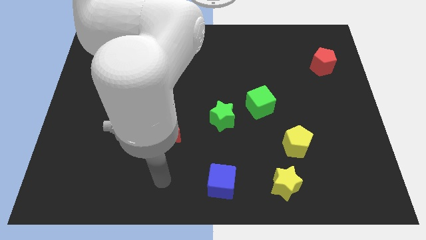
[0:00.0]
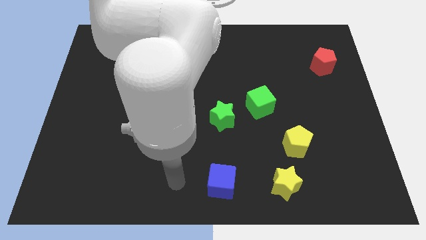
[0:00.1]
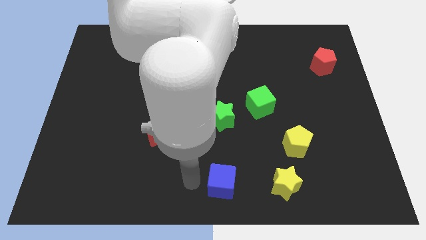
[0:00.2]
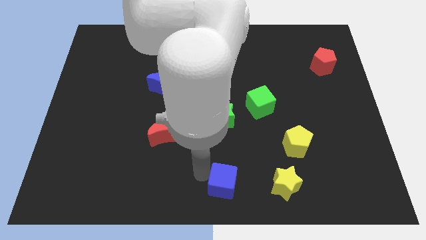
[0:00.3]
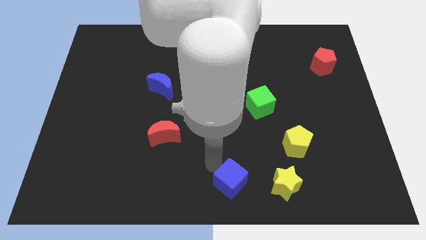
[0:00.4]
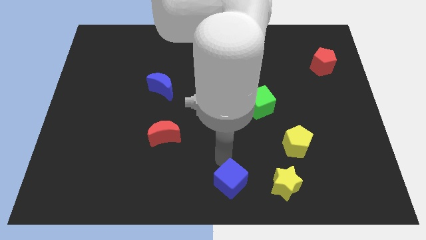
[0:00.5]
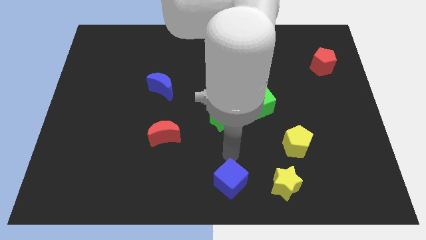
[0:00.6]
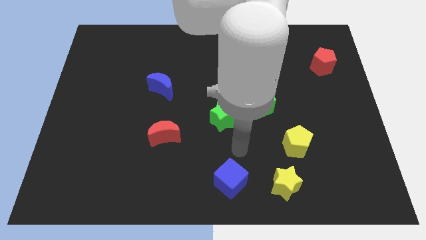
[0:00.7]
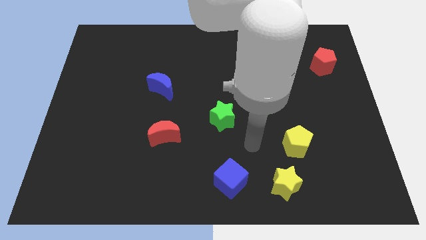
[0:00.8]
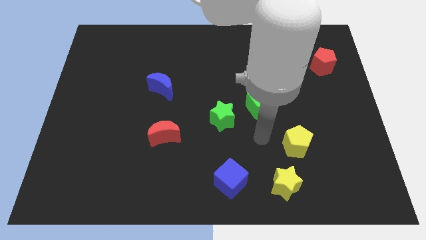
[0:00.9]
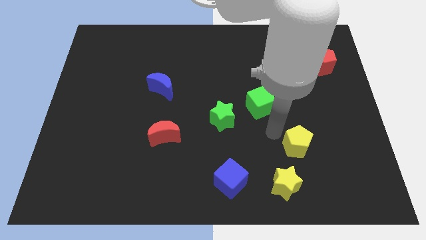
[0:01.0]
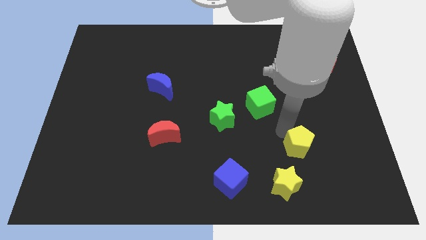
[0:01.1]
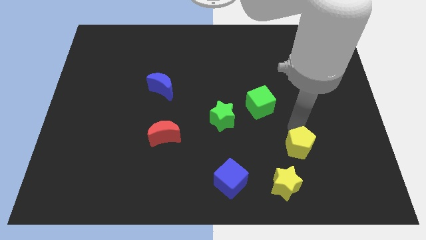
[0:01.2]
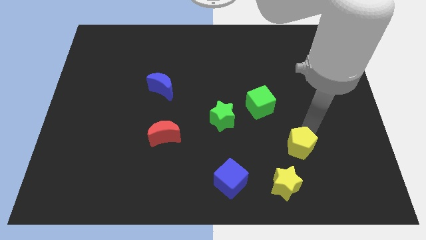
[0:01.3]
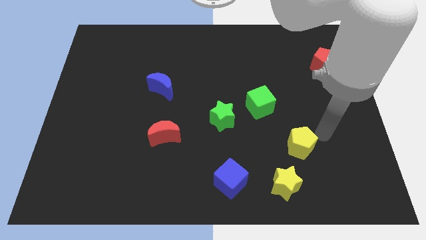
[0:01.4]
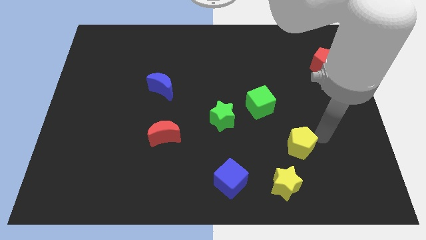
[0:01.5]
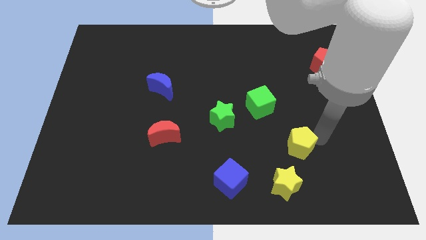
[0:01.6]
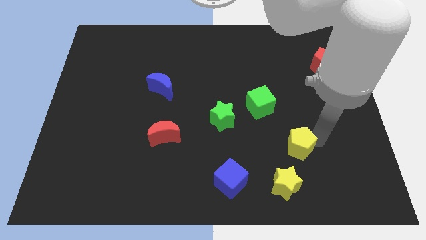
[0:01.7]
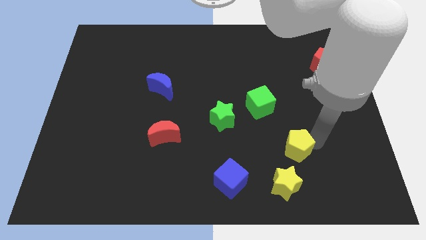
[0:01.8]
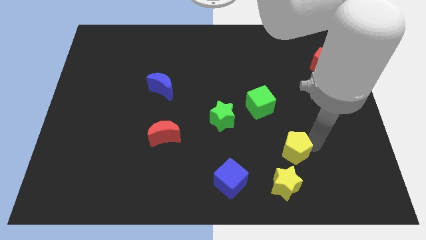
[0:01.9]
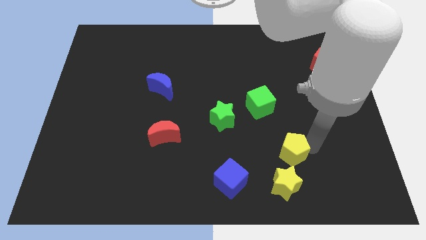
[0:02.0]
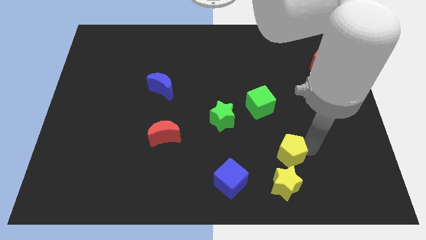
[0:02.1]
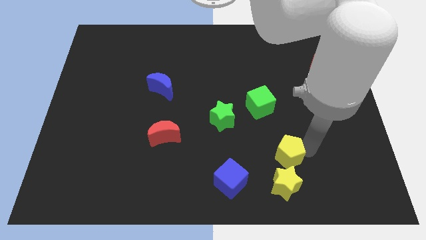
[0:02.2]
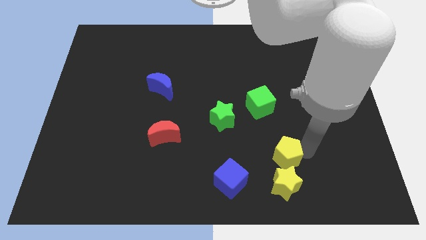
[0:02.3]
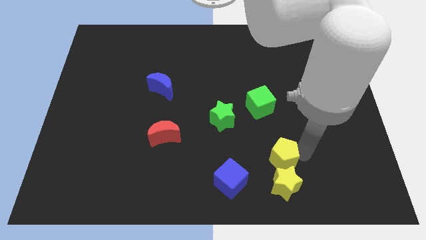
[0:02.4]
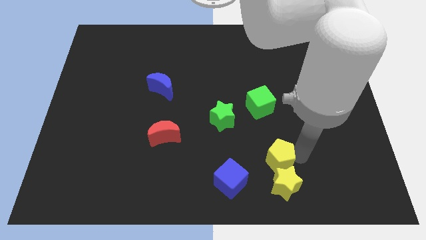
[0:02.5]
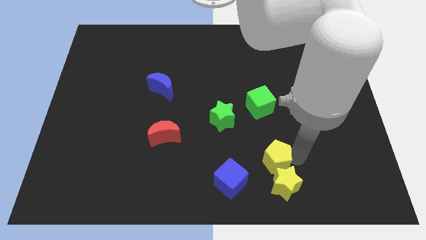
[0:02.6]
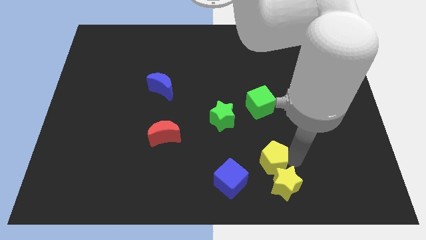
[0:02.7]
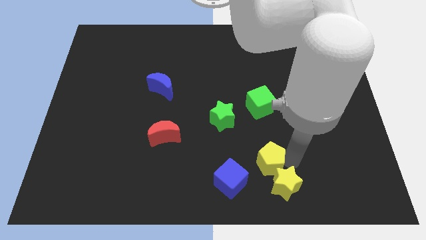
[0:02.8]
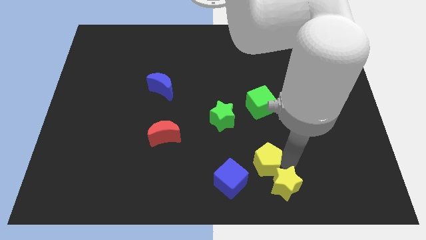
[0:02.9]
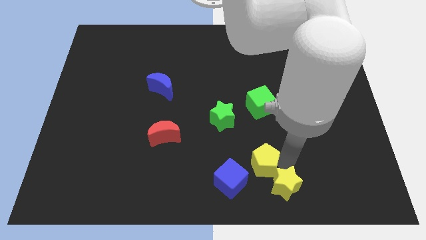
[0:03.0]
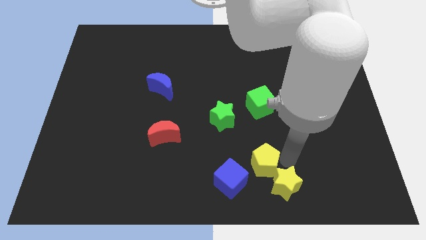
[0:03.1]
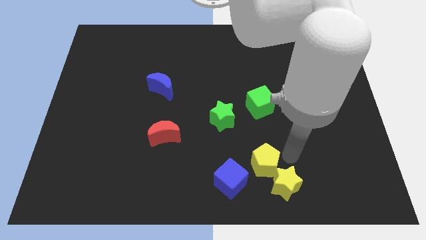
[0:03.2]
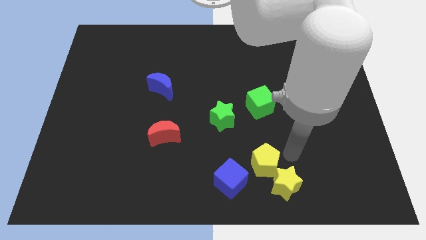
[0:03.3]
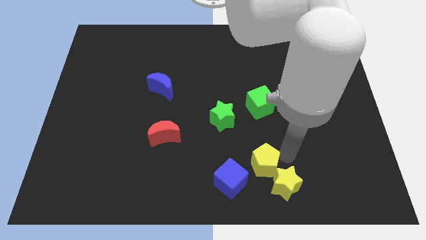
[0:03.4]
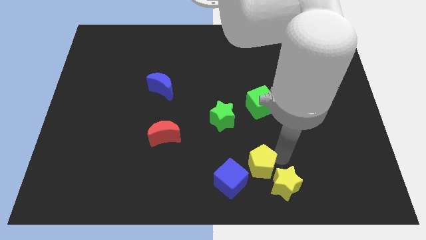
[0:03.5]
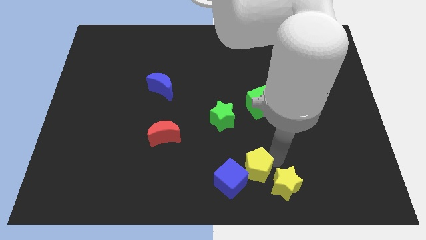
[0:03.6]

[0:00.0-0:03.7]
push the yellow pentagon towards the blue cube

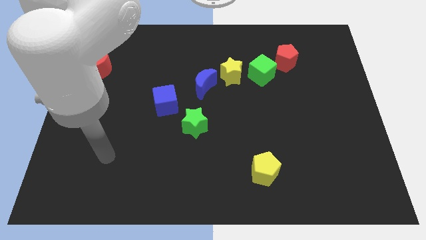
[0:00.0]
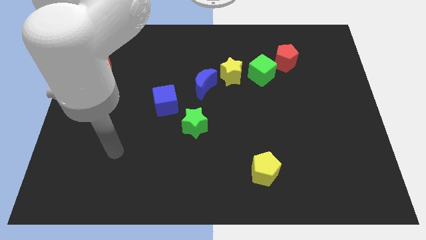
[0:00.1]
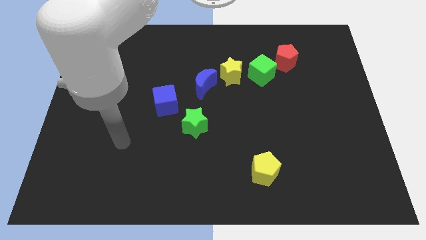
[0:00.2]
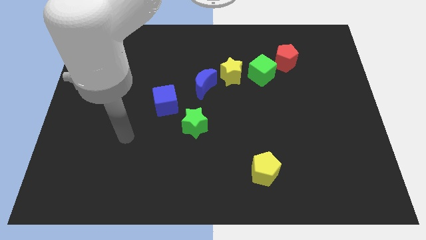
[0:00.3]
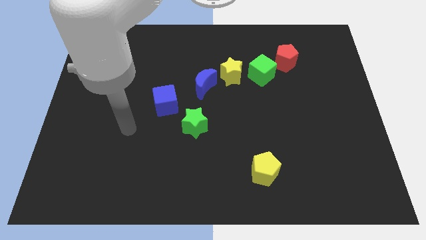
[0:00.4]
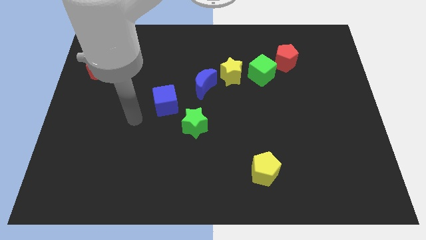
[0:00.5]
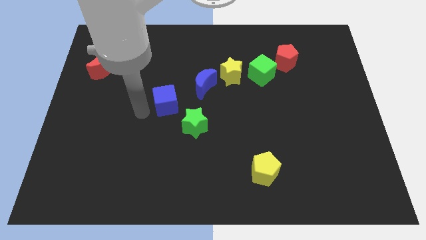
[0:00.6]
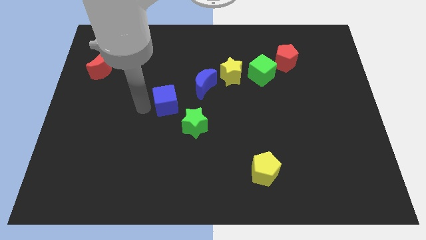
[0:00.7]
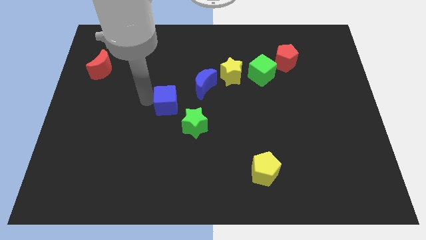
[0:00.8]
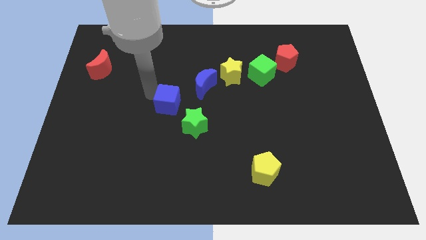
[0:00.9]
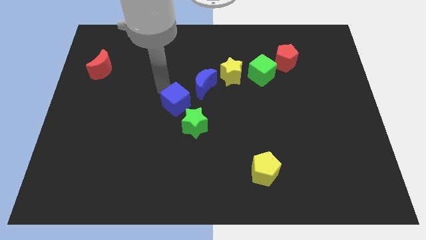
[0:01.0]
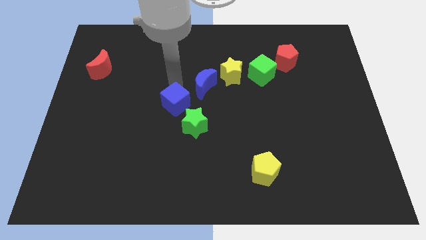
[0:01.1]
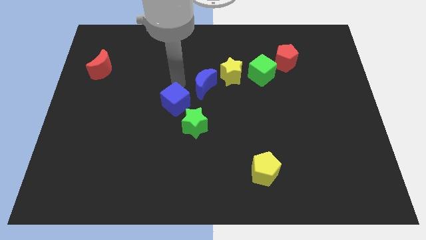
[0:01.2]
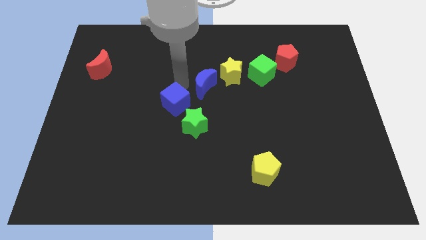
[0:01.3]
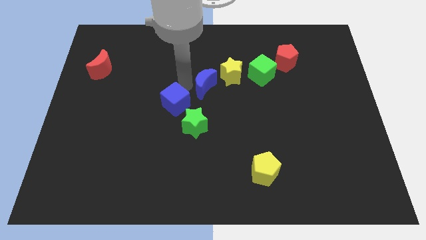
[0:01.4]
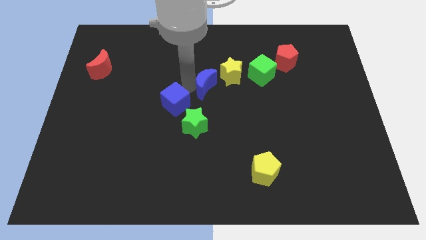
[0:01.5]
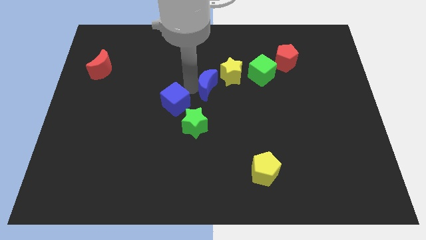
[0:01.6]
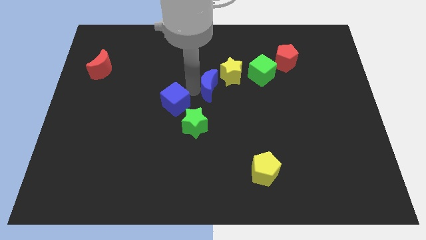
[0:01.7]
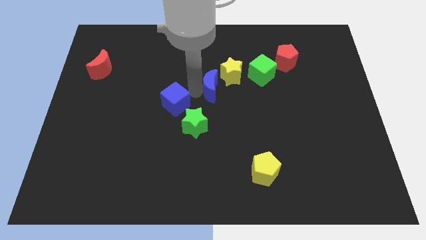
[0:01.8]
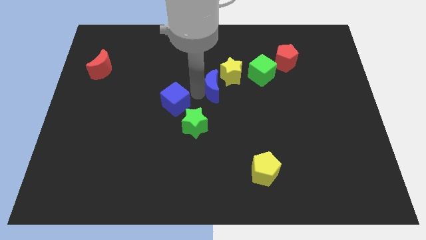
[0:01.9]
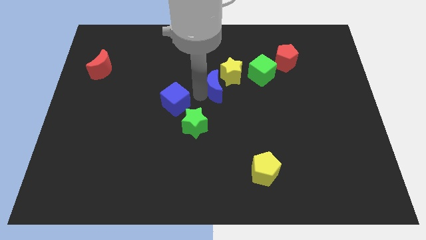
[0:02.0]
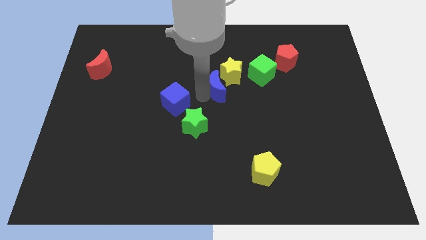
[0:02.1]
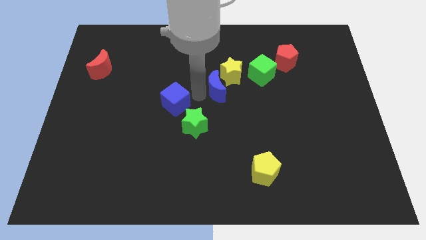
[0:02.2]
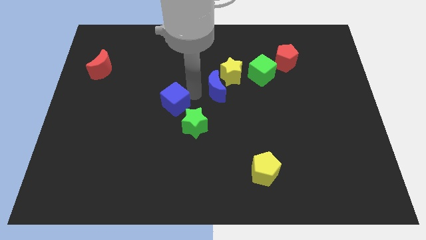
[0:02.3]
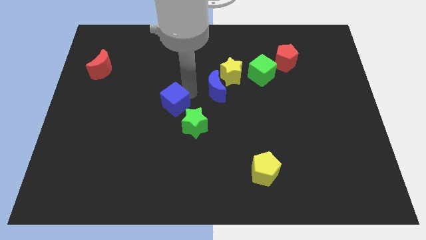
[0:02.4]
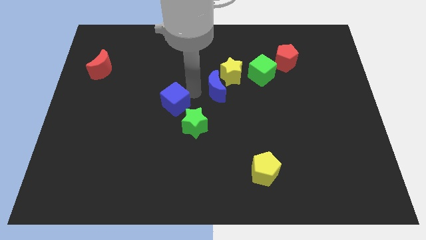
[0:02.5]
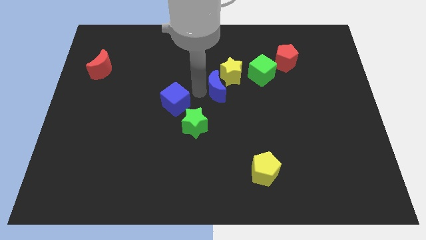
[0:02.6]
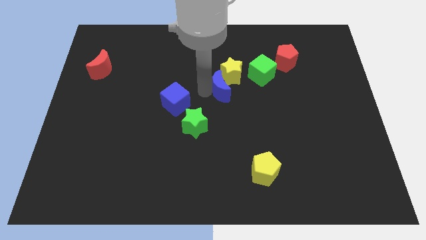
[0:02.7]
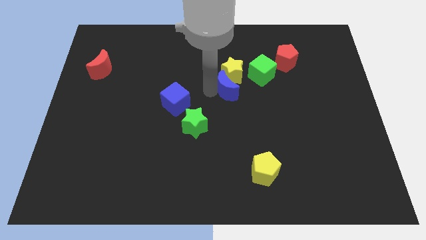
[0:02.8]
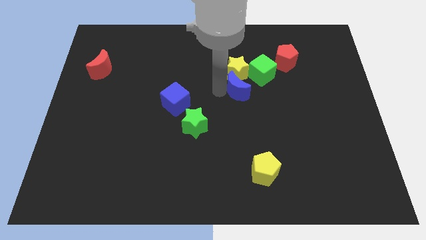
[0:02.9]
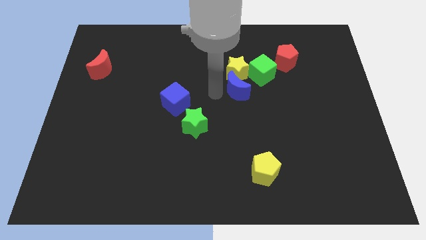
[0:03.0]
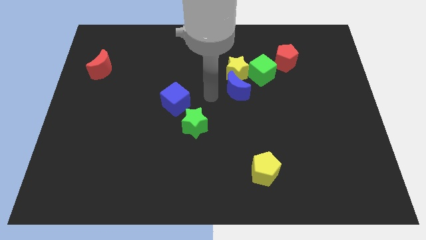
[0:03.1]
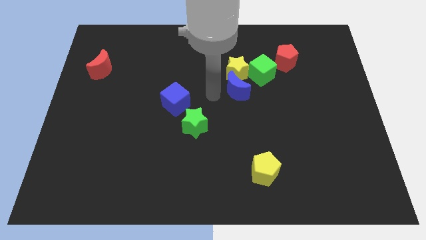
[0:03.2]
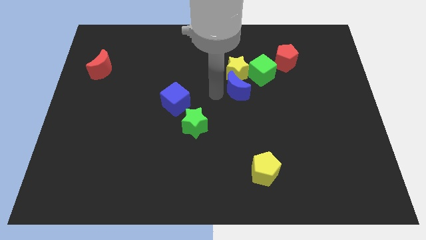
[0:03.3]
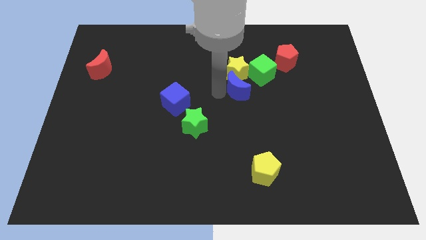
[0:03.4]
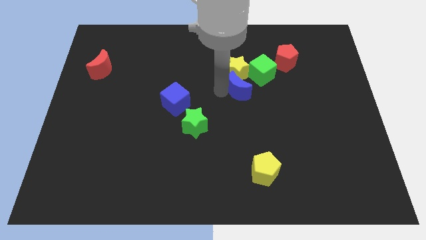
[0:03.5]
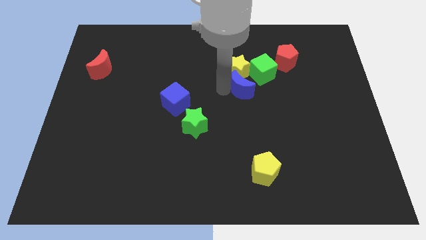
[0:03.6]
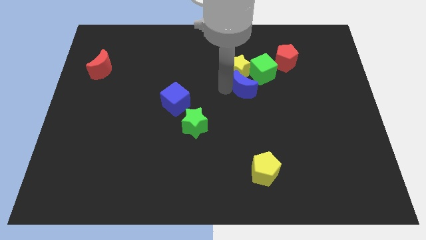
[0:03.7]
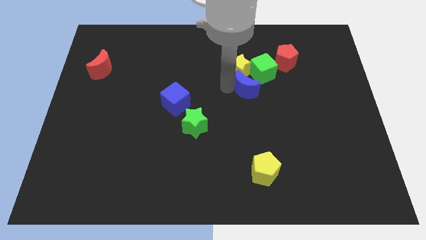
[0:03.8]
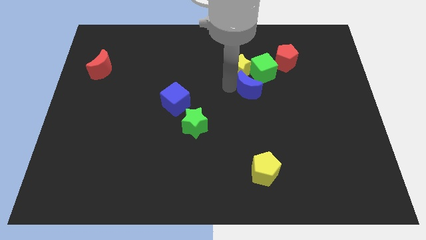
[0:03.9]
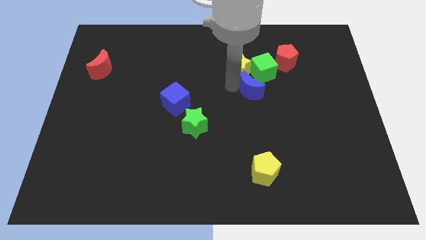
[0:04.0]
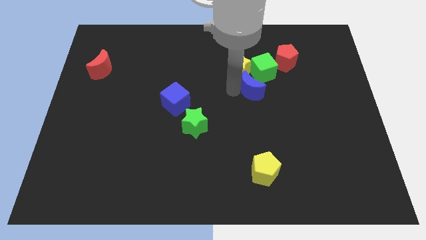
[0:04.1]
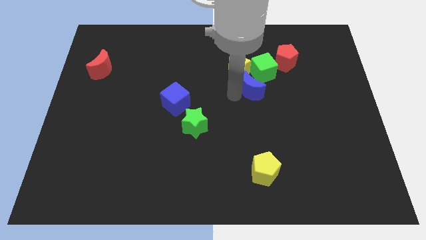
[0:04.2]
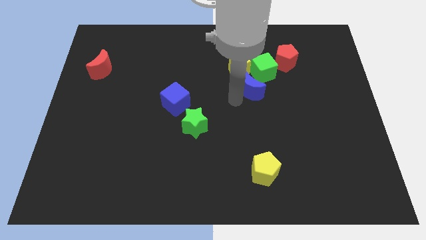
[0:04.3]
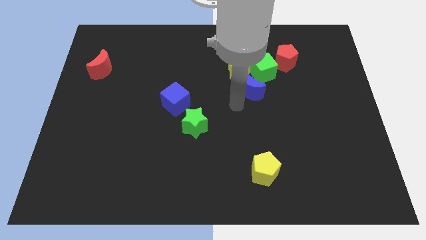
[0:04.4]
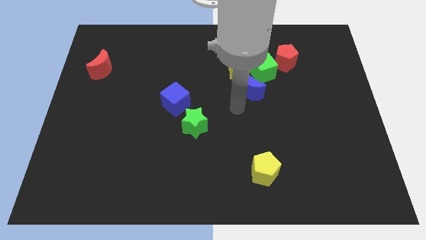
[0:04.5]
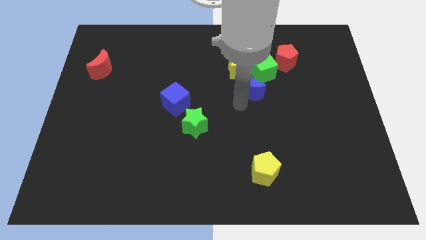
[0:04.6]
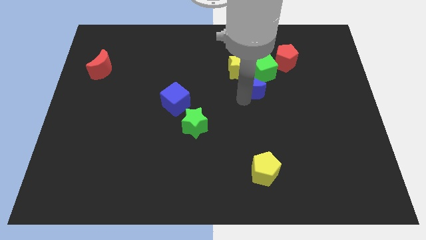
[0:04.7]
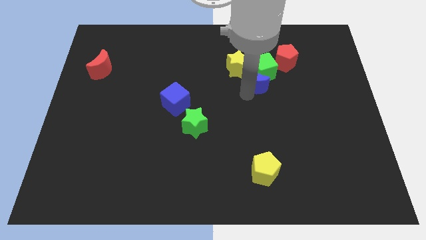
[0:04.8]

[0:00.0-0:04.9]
move the blue moon next to the green cube
